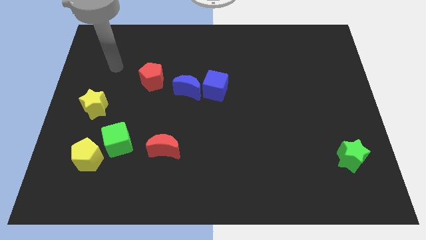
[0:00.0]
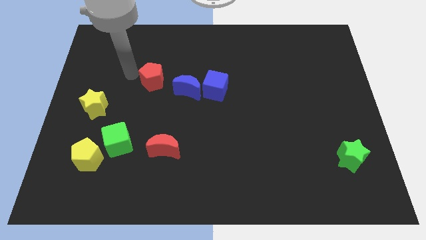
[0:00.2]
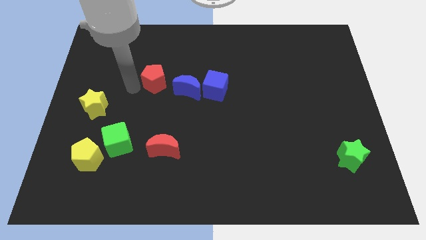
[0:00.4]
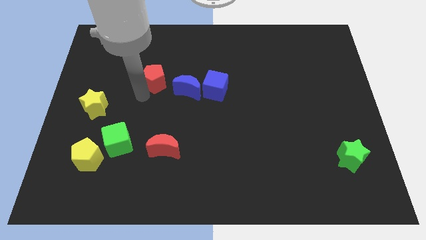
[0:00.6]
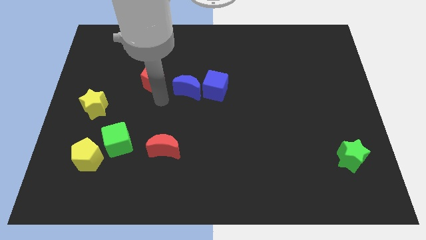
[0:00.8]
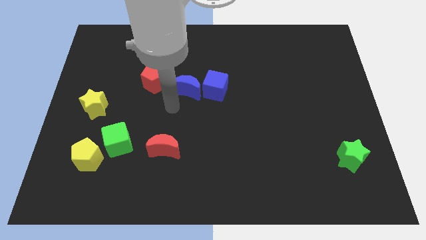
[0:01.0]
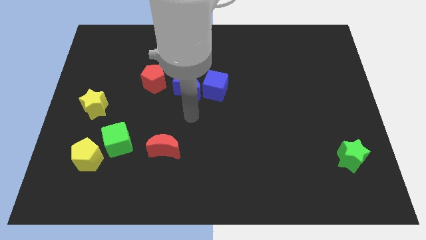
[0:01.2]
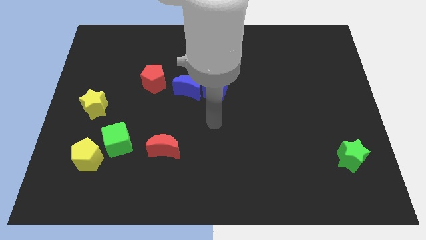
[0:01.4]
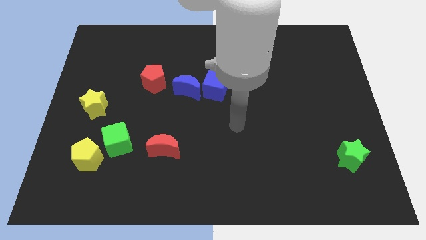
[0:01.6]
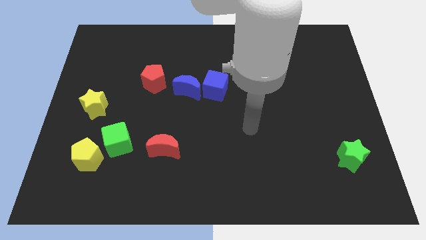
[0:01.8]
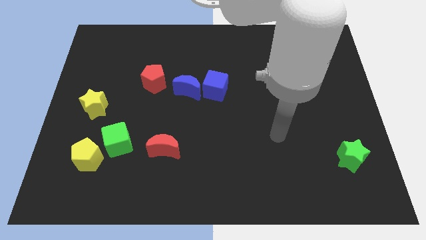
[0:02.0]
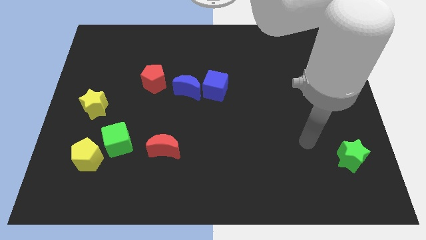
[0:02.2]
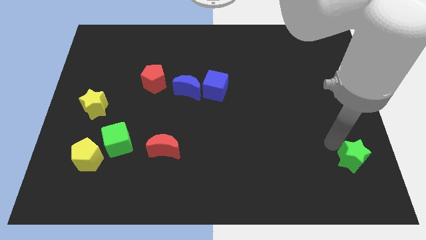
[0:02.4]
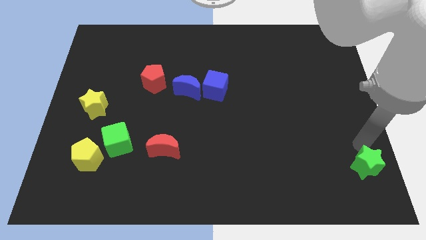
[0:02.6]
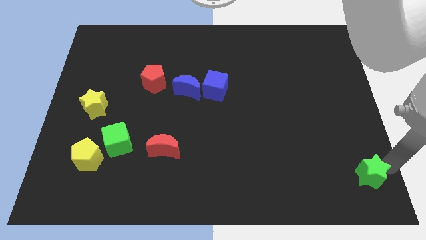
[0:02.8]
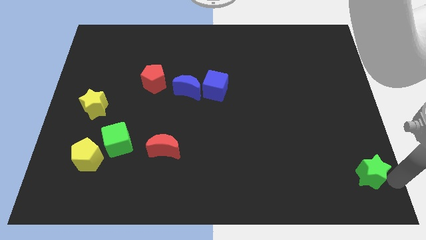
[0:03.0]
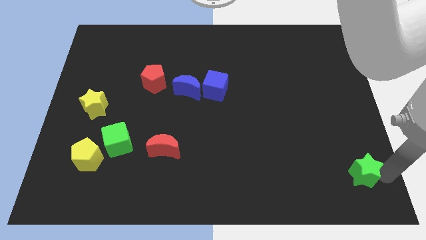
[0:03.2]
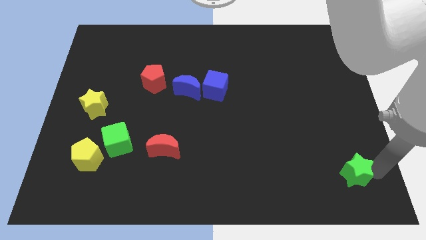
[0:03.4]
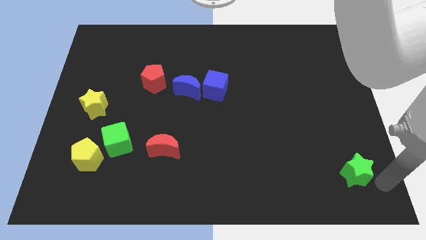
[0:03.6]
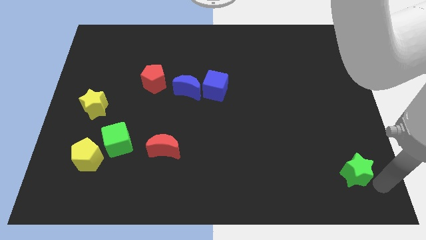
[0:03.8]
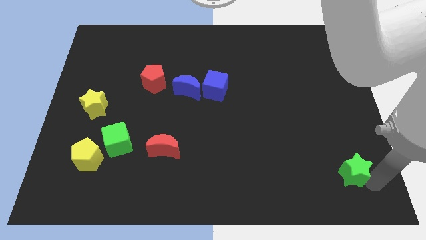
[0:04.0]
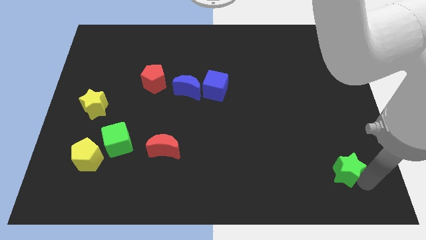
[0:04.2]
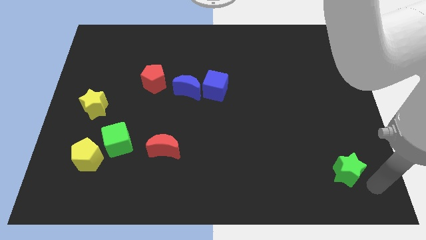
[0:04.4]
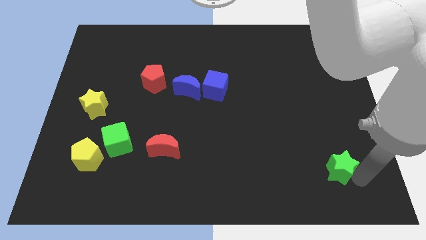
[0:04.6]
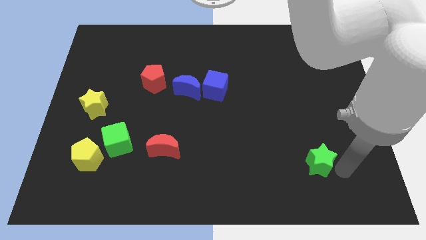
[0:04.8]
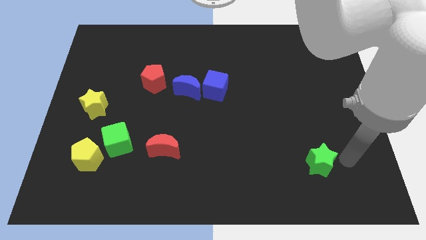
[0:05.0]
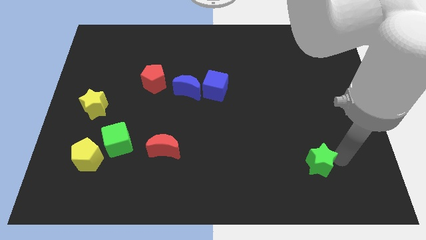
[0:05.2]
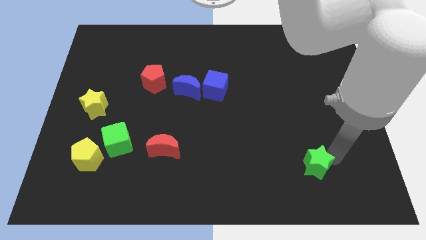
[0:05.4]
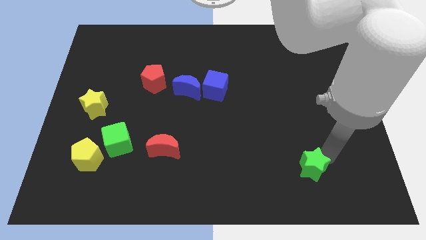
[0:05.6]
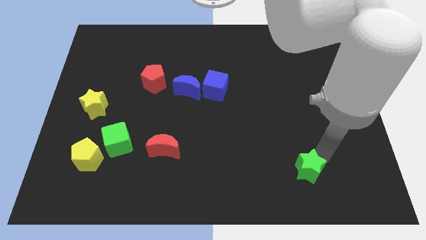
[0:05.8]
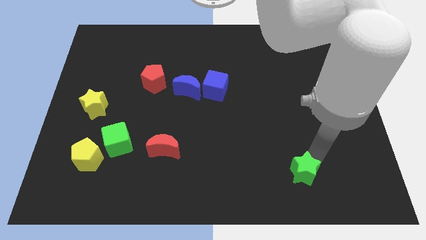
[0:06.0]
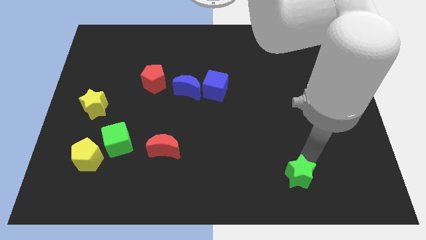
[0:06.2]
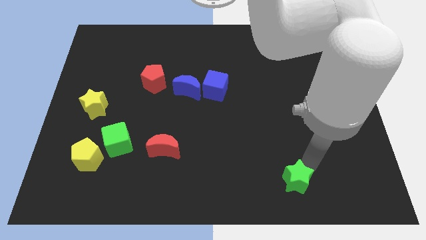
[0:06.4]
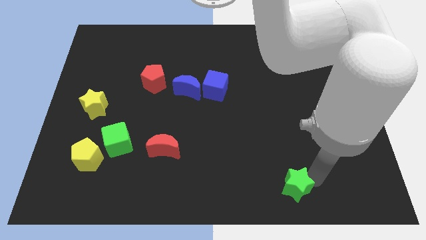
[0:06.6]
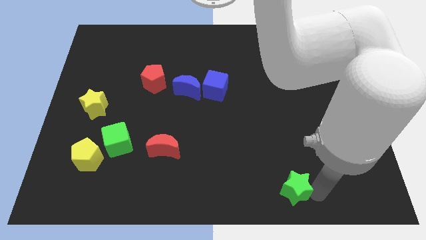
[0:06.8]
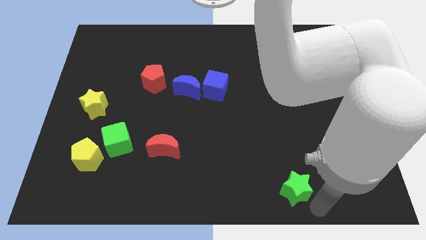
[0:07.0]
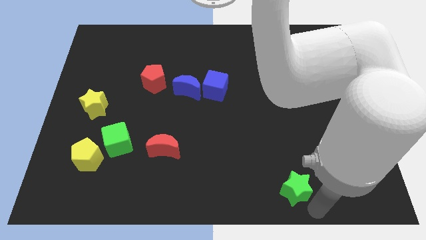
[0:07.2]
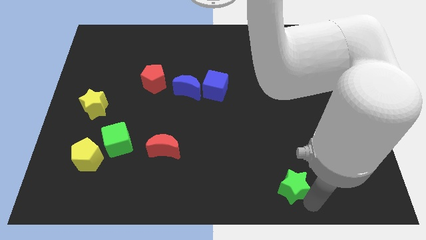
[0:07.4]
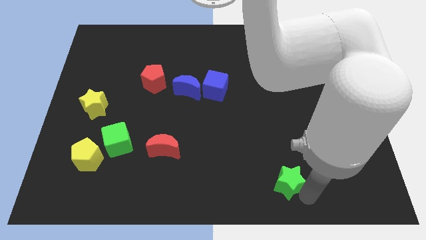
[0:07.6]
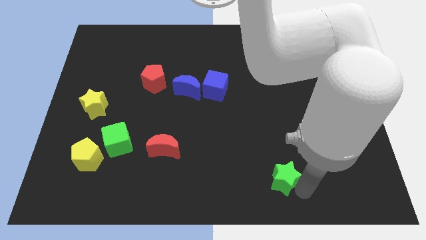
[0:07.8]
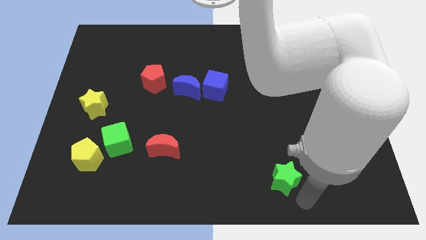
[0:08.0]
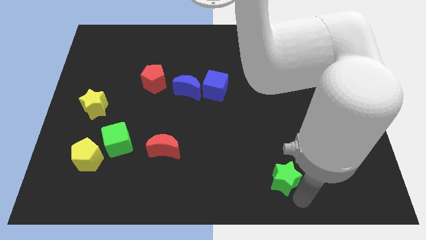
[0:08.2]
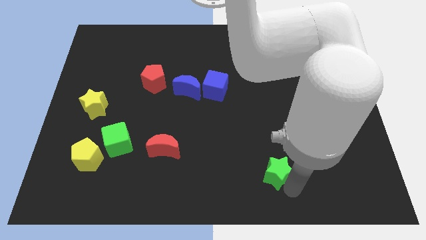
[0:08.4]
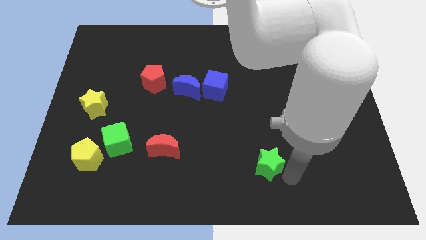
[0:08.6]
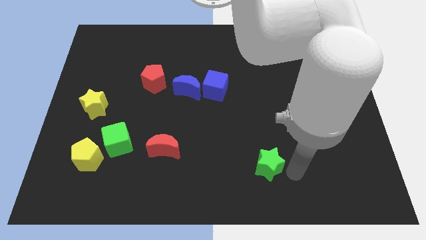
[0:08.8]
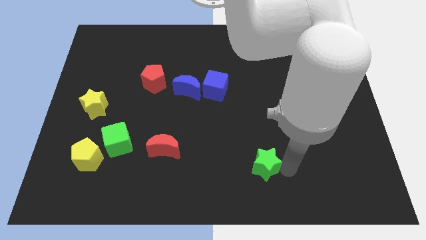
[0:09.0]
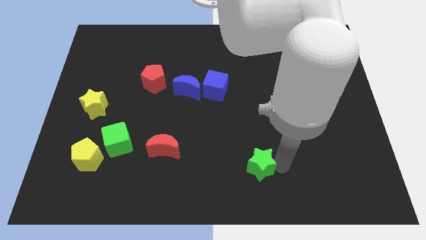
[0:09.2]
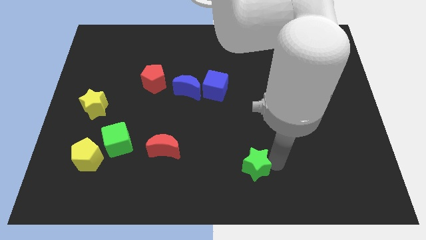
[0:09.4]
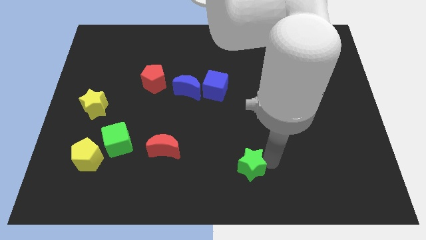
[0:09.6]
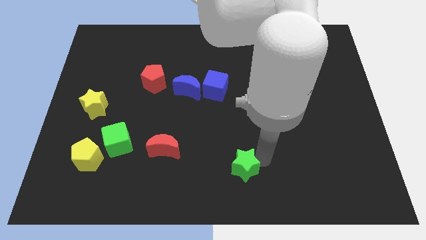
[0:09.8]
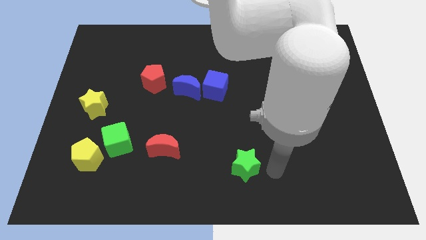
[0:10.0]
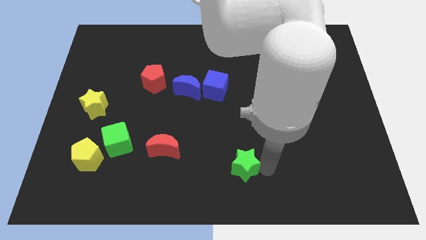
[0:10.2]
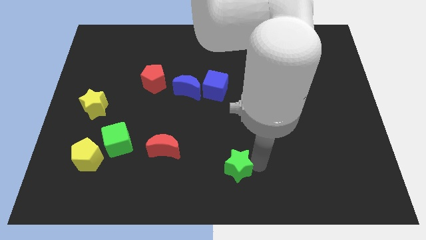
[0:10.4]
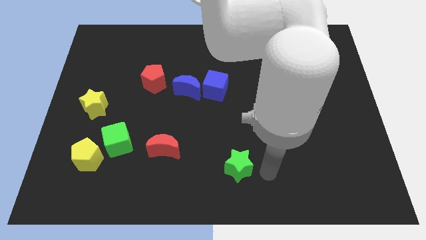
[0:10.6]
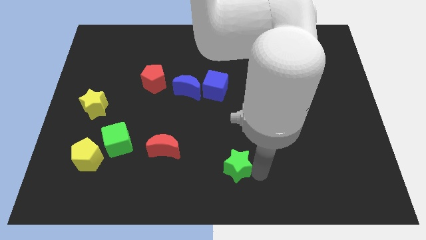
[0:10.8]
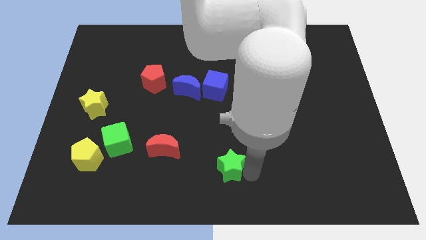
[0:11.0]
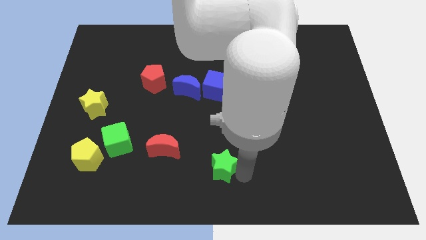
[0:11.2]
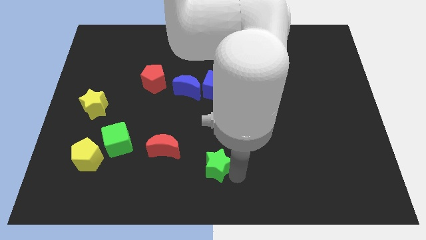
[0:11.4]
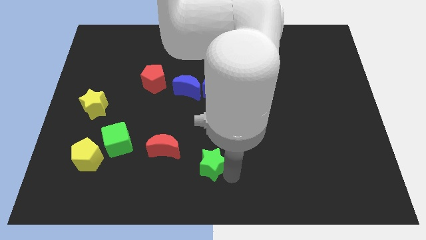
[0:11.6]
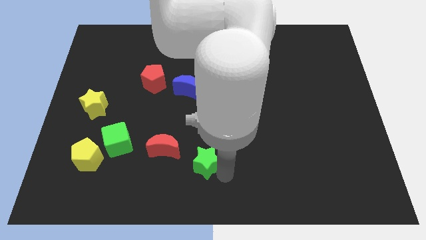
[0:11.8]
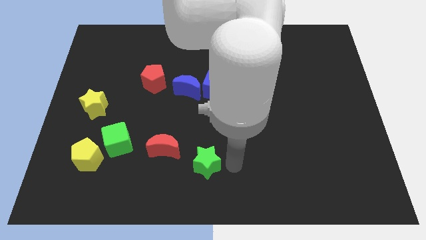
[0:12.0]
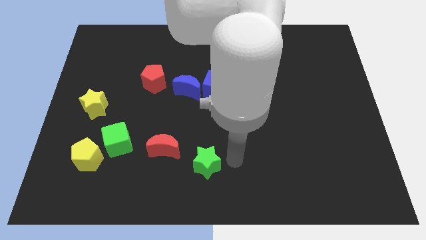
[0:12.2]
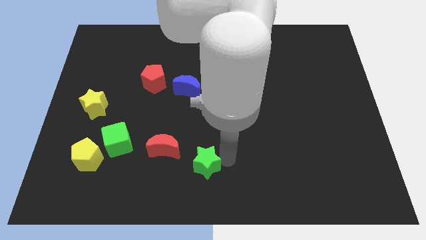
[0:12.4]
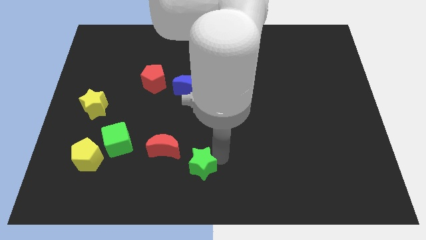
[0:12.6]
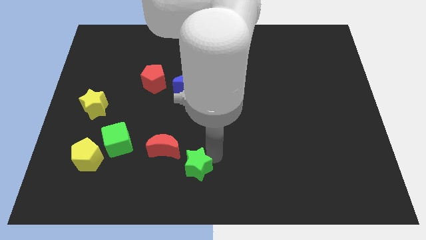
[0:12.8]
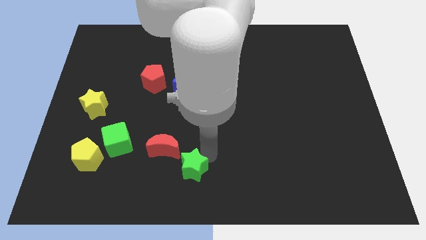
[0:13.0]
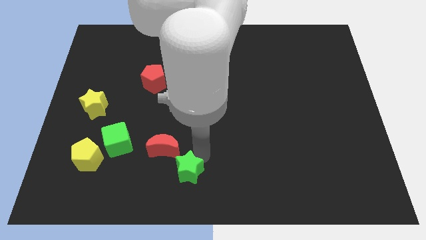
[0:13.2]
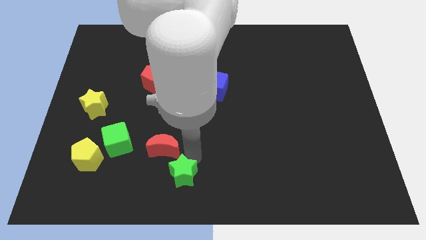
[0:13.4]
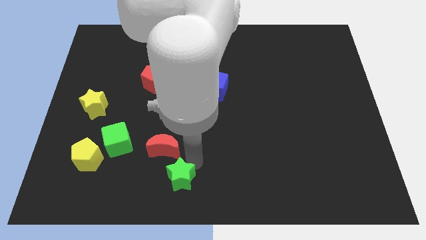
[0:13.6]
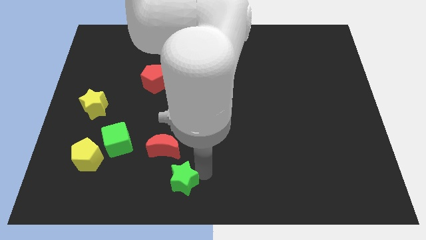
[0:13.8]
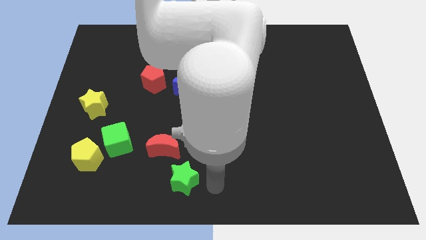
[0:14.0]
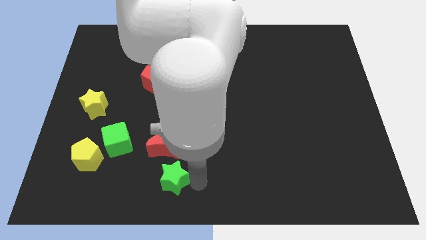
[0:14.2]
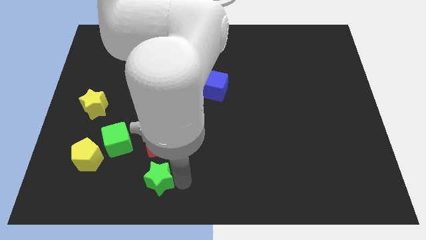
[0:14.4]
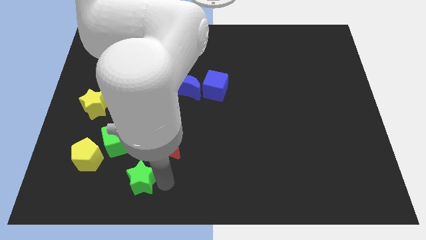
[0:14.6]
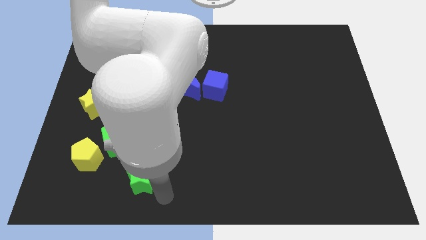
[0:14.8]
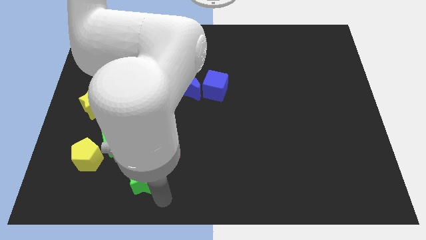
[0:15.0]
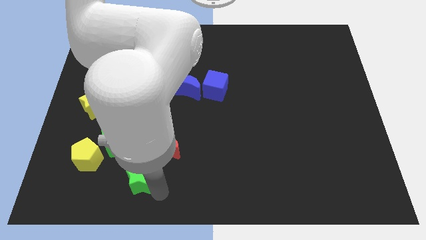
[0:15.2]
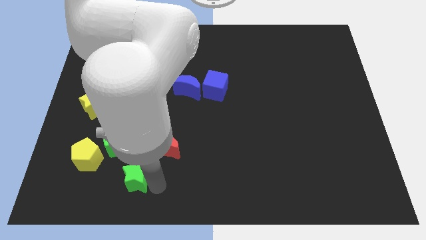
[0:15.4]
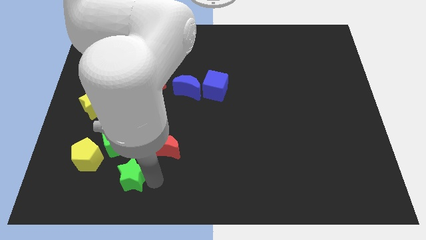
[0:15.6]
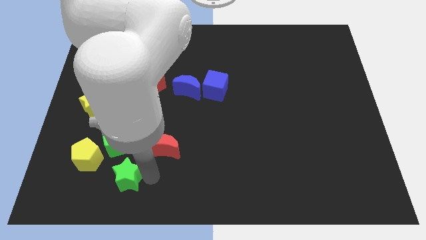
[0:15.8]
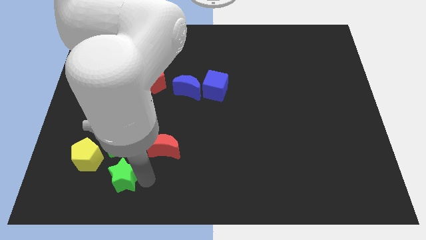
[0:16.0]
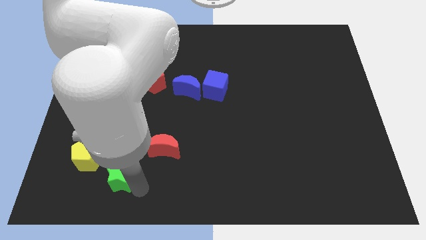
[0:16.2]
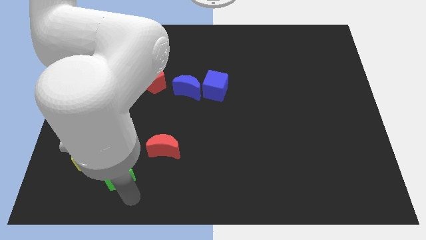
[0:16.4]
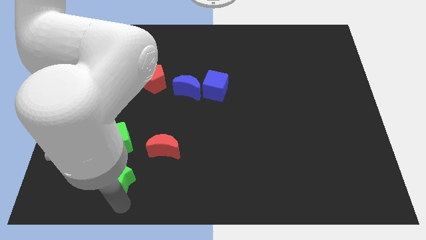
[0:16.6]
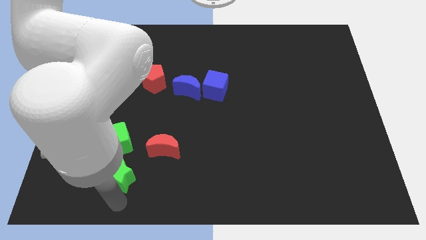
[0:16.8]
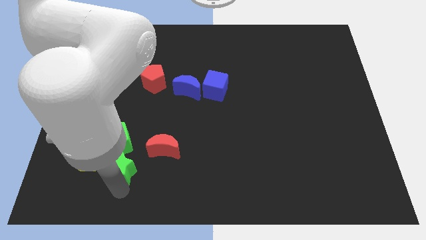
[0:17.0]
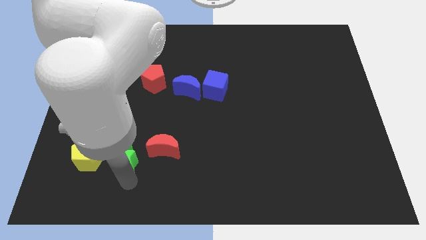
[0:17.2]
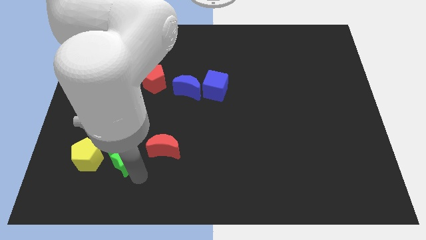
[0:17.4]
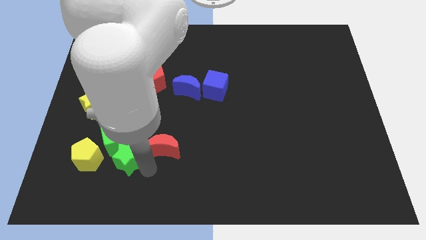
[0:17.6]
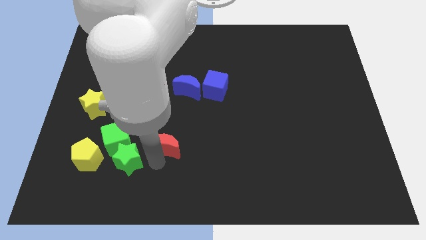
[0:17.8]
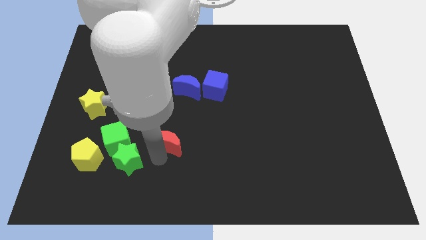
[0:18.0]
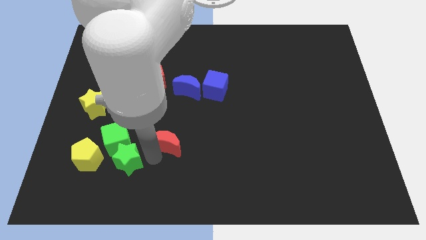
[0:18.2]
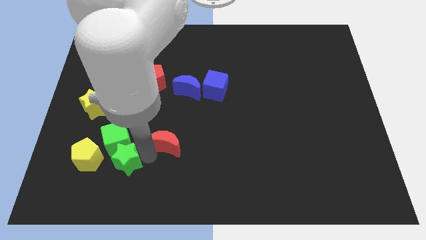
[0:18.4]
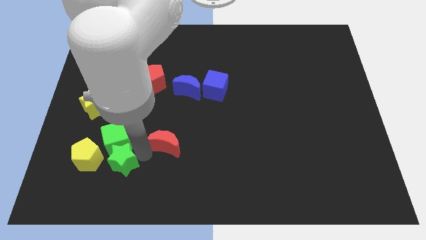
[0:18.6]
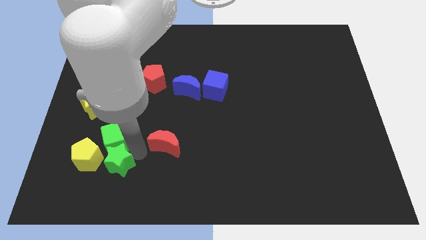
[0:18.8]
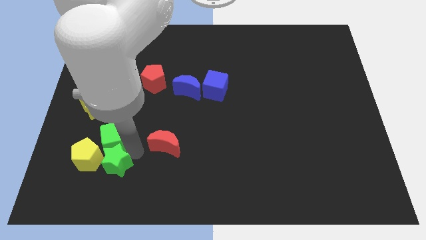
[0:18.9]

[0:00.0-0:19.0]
slide the green star close to the yellow pentagon
